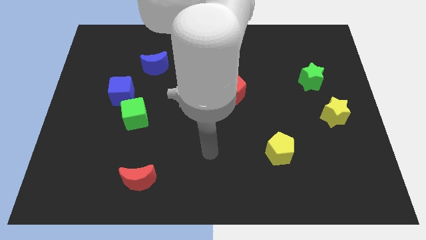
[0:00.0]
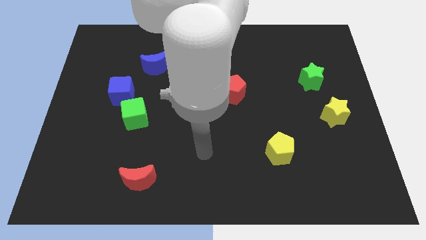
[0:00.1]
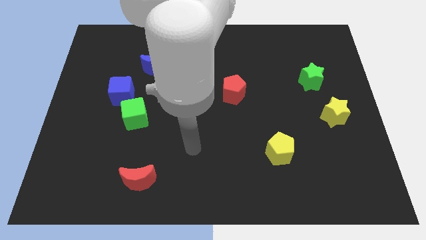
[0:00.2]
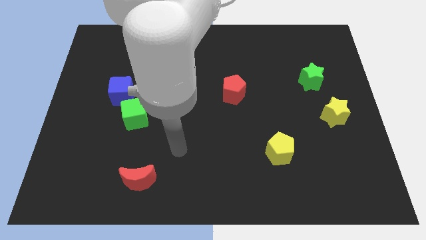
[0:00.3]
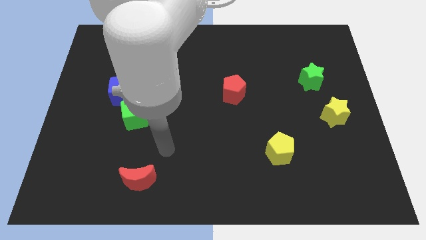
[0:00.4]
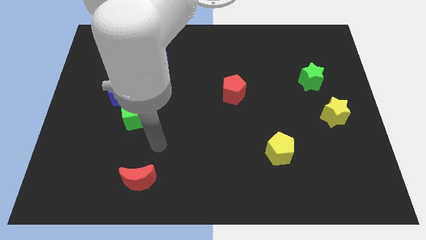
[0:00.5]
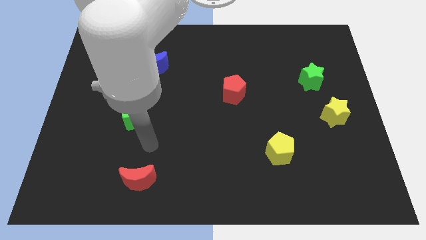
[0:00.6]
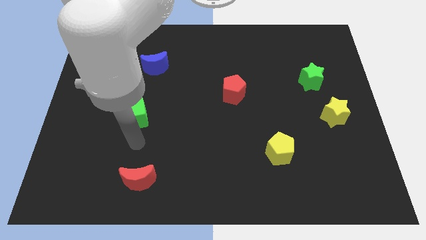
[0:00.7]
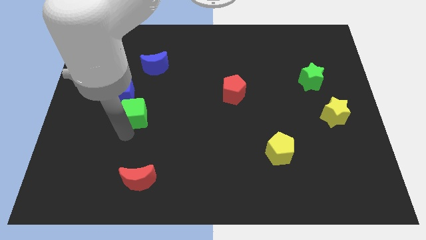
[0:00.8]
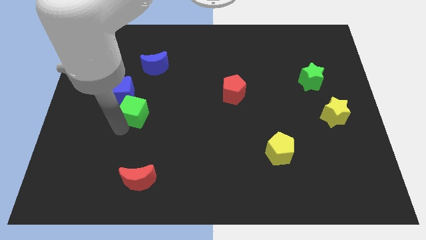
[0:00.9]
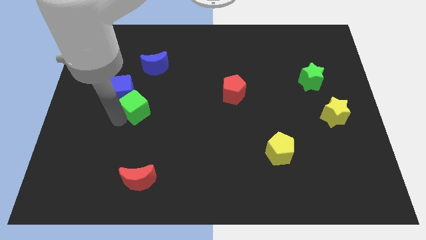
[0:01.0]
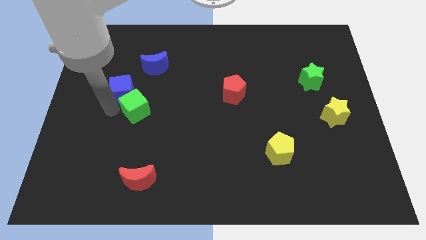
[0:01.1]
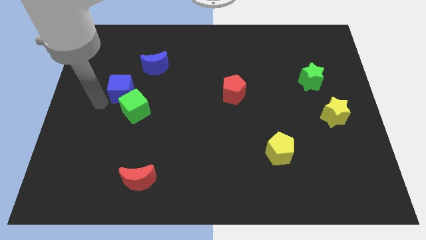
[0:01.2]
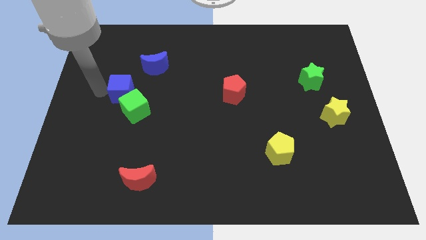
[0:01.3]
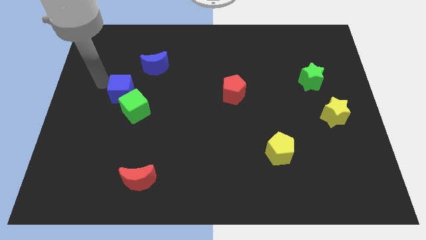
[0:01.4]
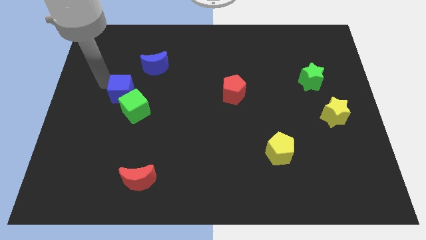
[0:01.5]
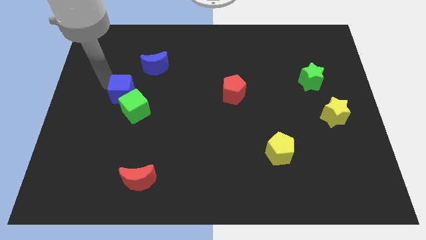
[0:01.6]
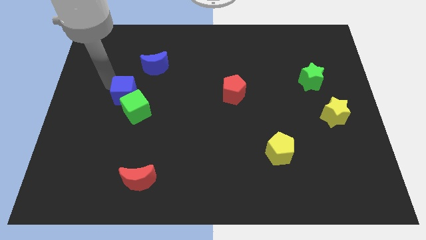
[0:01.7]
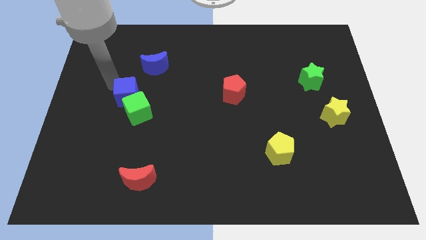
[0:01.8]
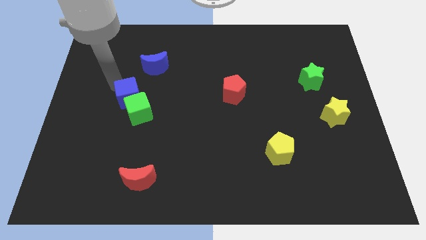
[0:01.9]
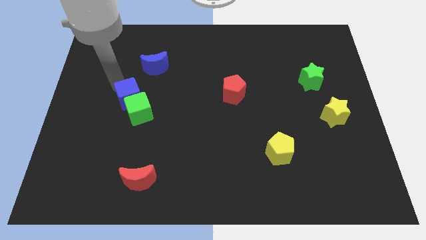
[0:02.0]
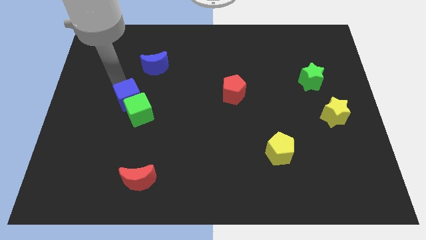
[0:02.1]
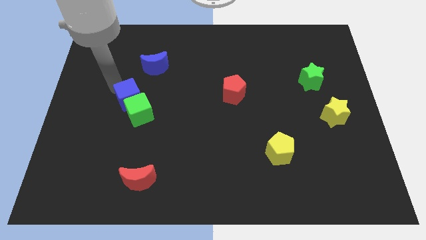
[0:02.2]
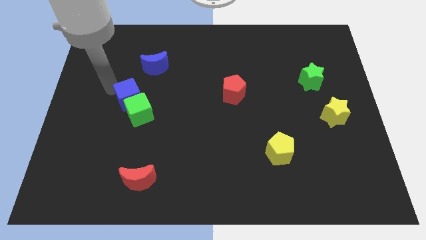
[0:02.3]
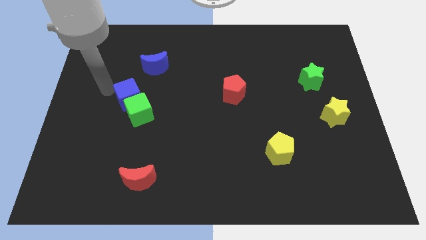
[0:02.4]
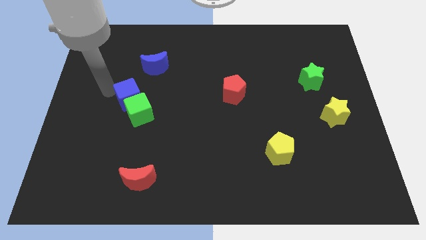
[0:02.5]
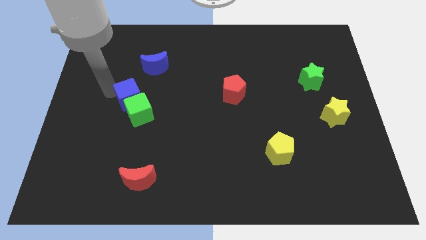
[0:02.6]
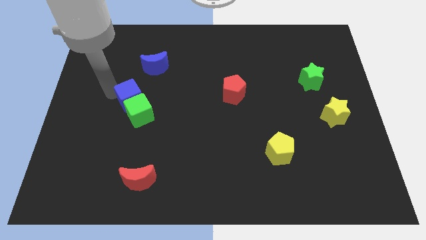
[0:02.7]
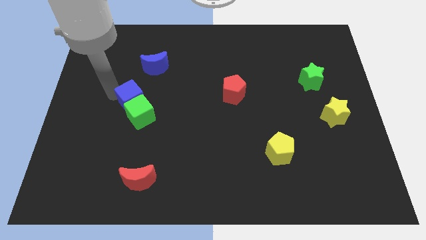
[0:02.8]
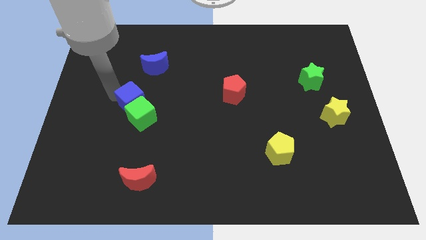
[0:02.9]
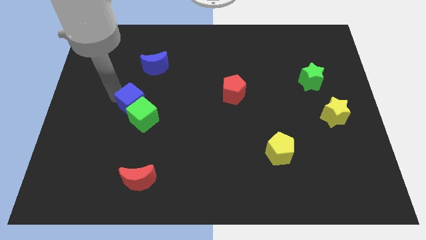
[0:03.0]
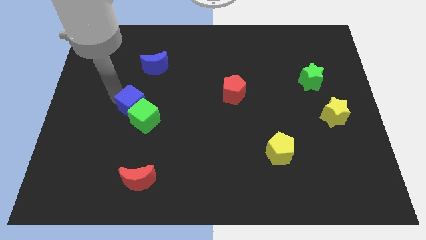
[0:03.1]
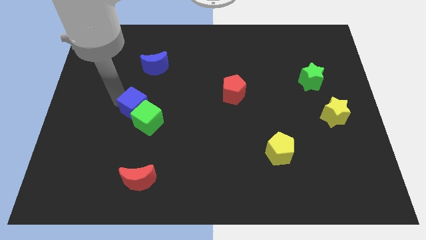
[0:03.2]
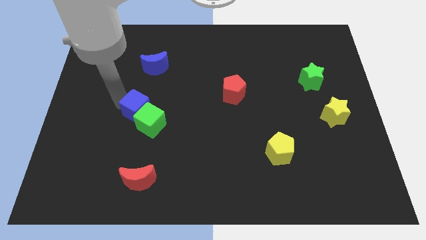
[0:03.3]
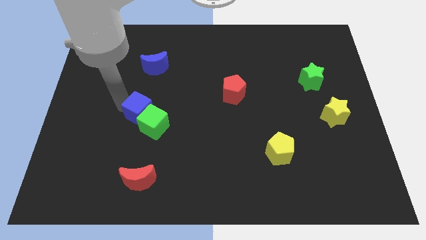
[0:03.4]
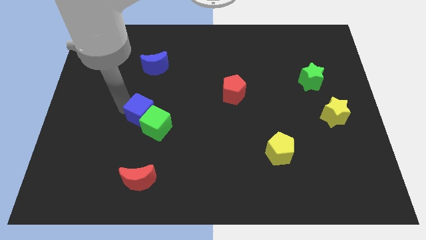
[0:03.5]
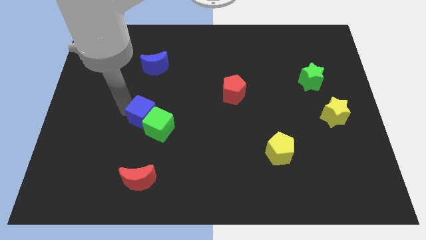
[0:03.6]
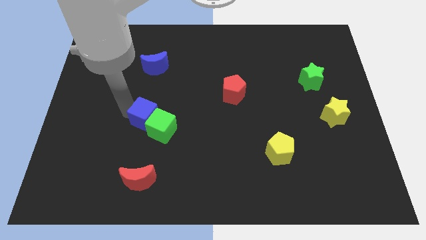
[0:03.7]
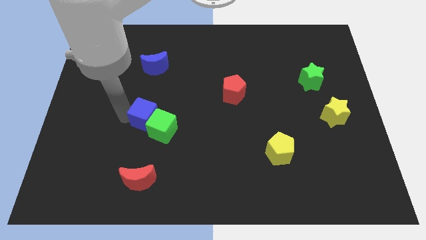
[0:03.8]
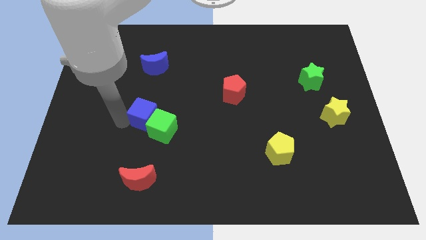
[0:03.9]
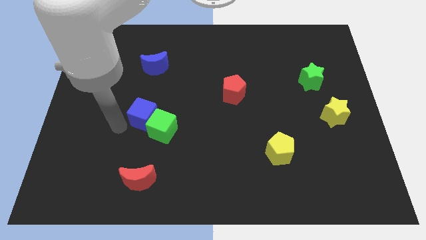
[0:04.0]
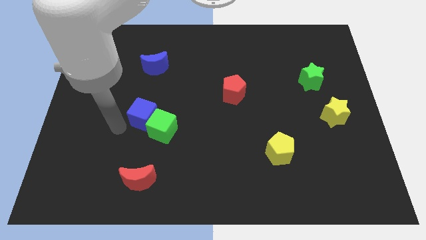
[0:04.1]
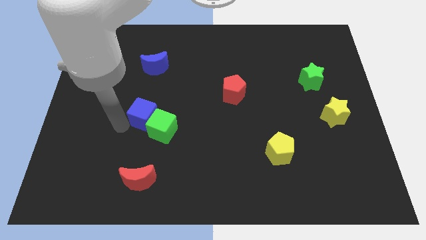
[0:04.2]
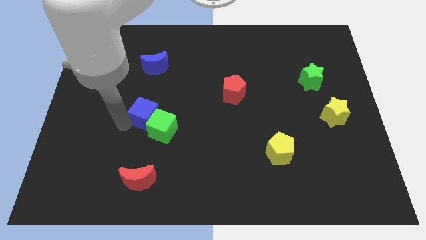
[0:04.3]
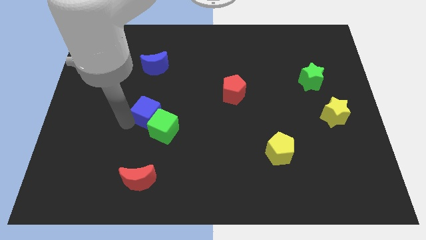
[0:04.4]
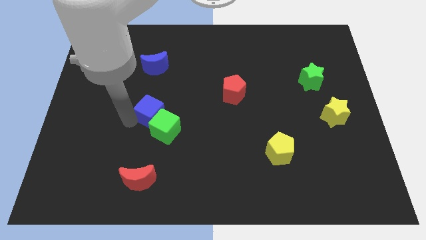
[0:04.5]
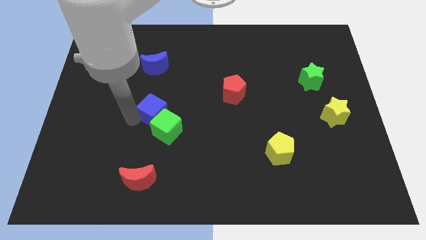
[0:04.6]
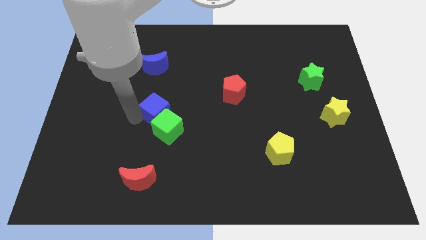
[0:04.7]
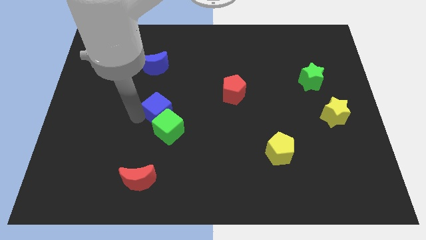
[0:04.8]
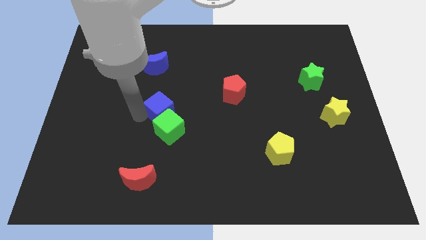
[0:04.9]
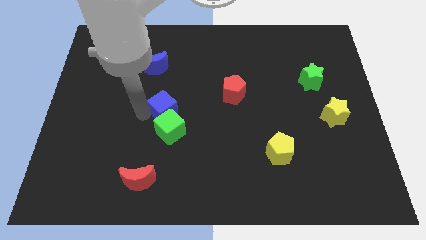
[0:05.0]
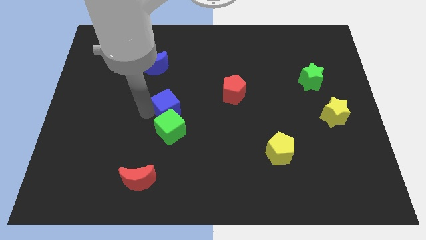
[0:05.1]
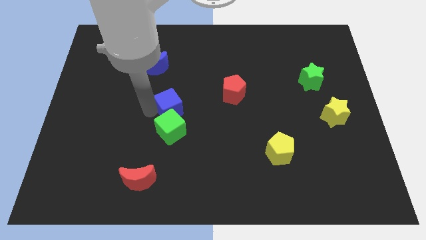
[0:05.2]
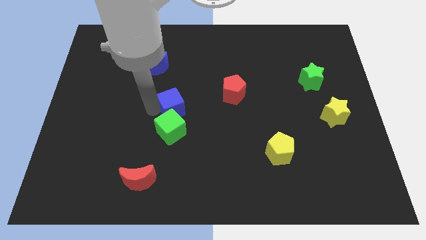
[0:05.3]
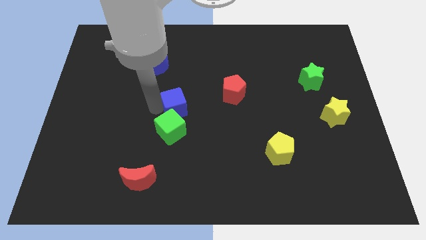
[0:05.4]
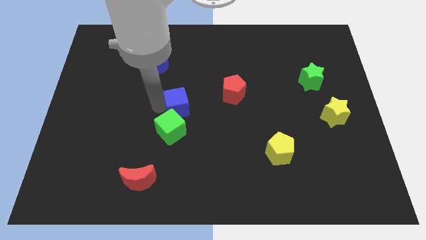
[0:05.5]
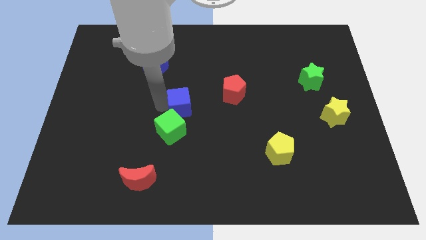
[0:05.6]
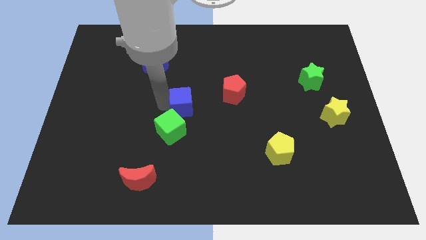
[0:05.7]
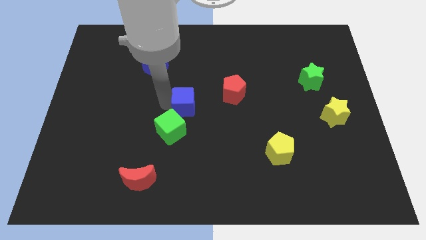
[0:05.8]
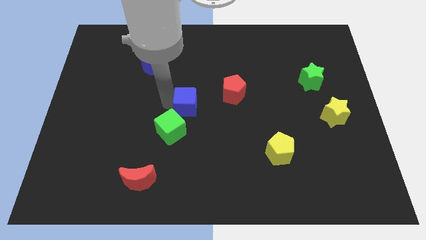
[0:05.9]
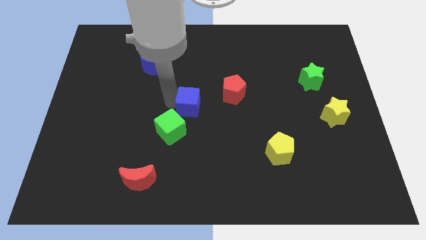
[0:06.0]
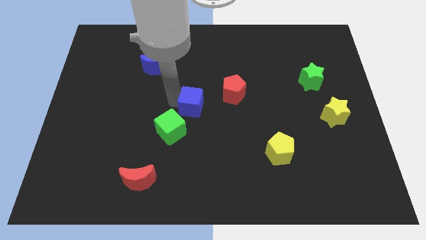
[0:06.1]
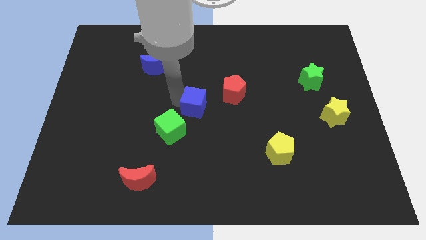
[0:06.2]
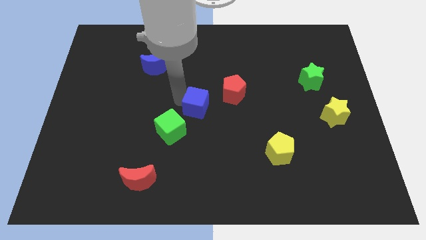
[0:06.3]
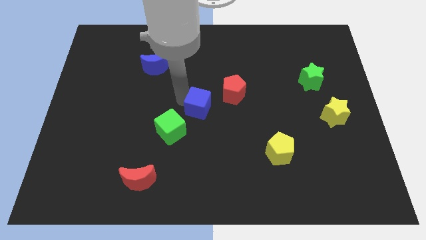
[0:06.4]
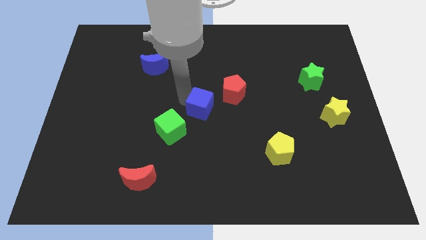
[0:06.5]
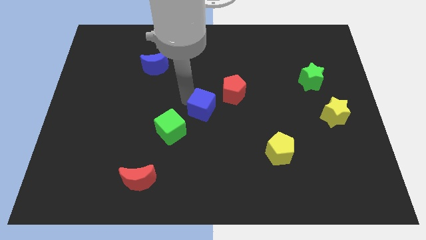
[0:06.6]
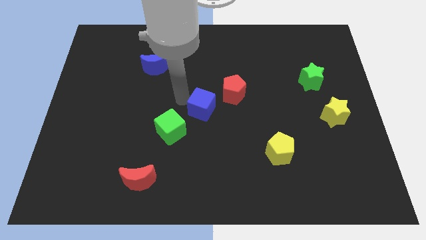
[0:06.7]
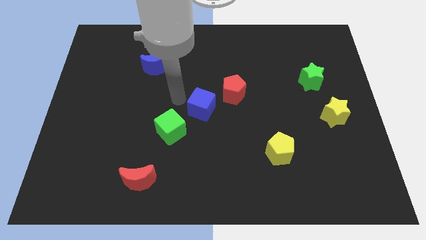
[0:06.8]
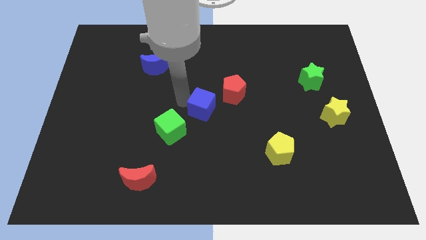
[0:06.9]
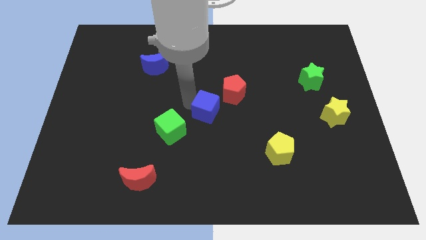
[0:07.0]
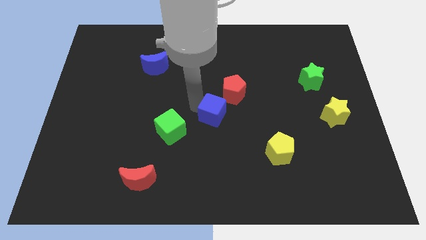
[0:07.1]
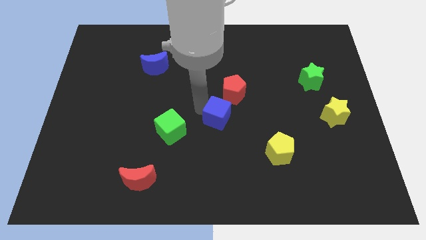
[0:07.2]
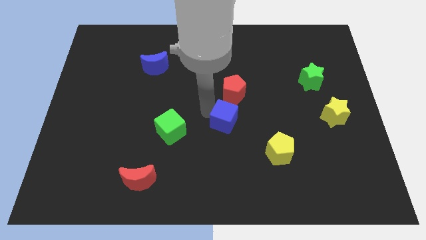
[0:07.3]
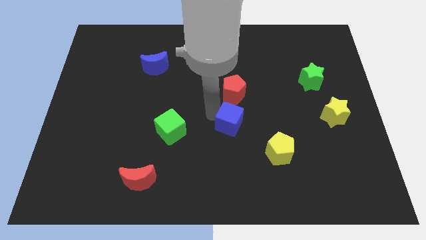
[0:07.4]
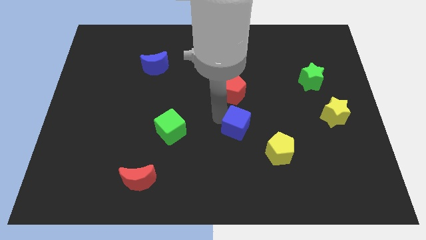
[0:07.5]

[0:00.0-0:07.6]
put the blue cube diagonally up and to the left of the yellow pentagon

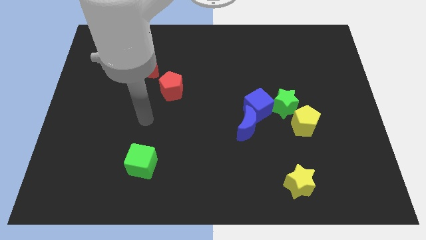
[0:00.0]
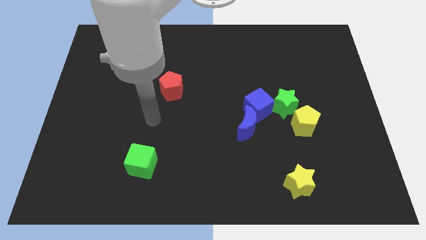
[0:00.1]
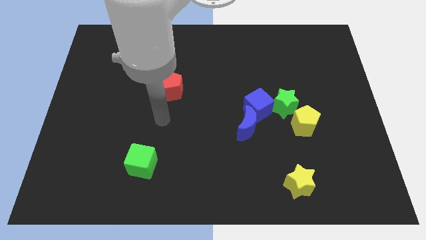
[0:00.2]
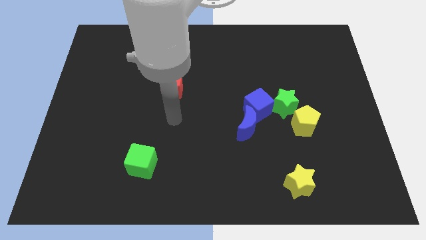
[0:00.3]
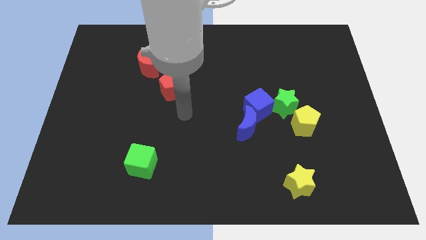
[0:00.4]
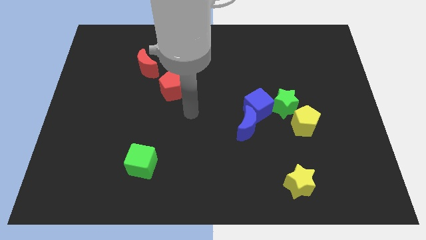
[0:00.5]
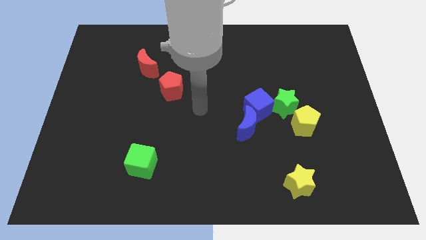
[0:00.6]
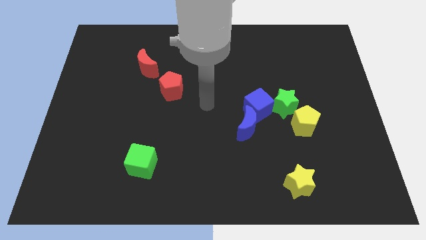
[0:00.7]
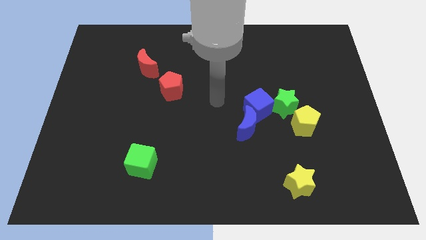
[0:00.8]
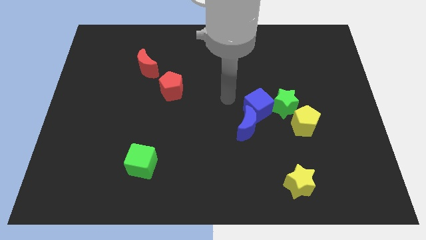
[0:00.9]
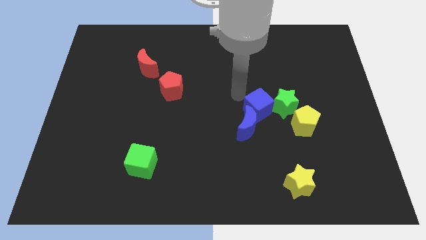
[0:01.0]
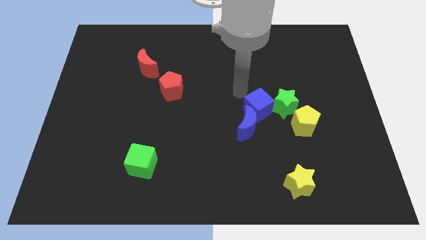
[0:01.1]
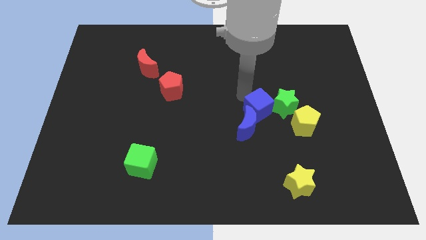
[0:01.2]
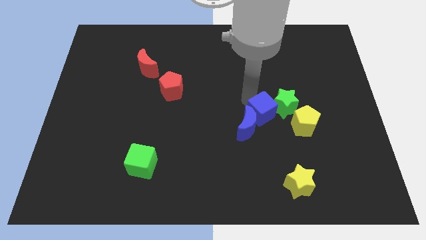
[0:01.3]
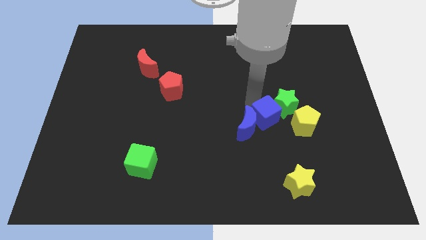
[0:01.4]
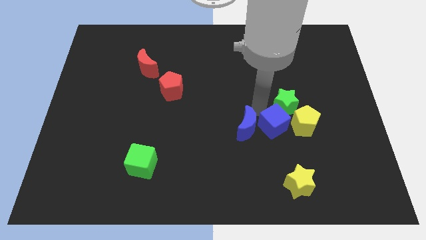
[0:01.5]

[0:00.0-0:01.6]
push the blue cube to the bottom of the green star
